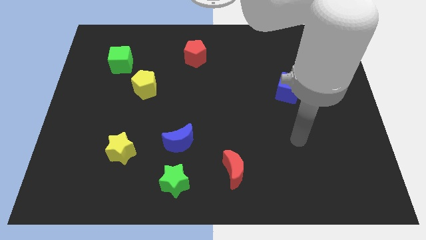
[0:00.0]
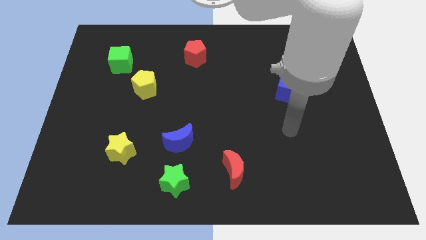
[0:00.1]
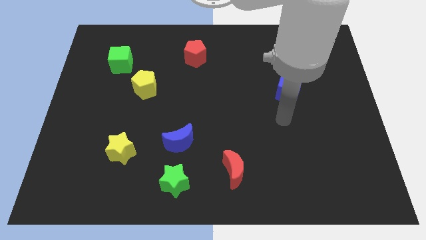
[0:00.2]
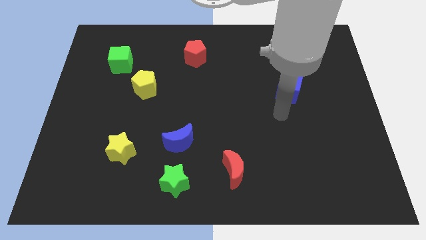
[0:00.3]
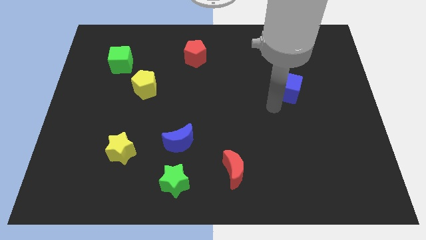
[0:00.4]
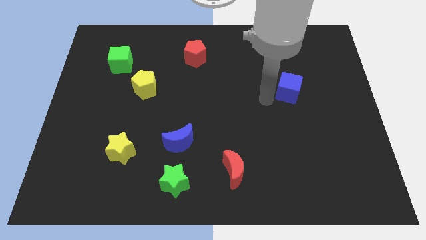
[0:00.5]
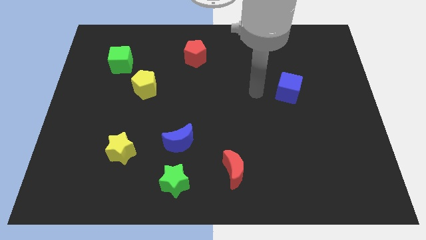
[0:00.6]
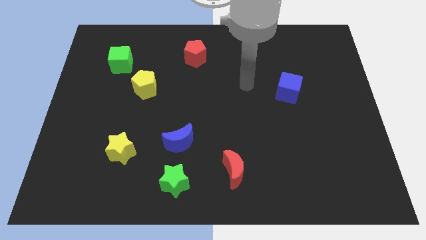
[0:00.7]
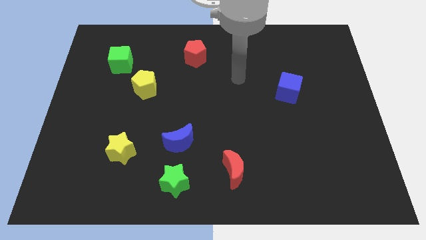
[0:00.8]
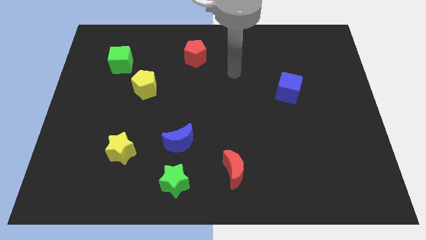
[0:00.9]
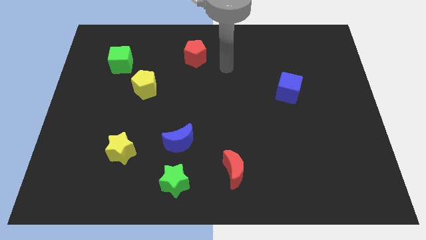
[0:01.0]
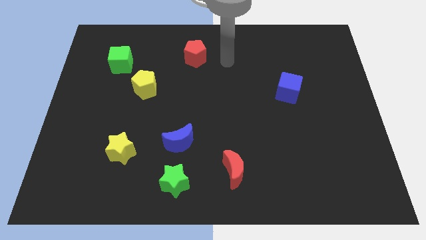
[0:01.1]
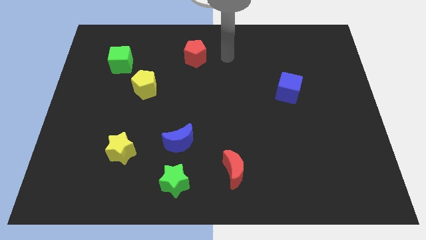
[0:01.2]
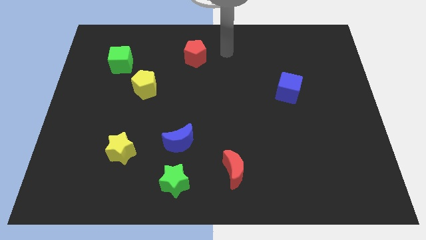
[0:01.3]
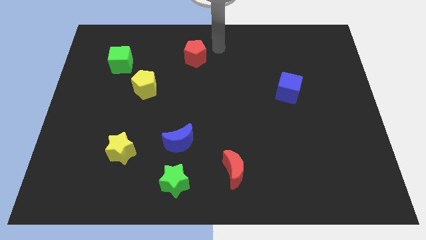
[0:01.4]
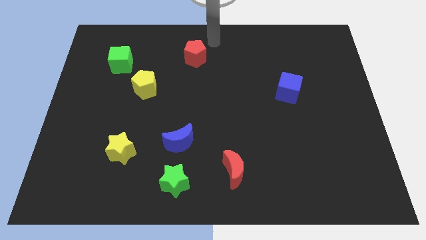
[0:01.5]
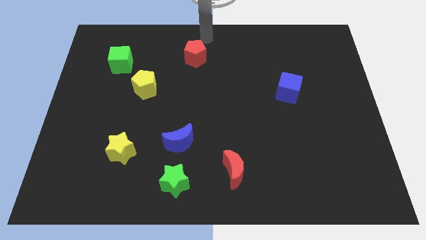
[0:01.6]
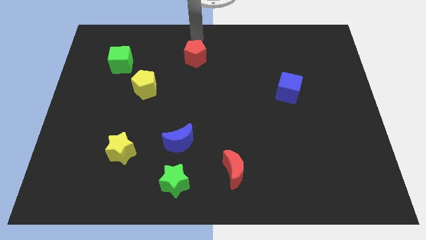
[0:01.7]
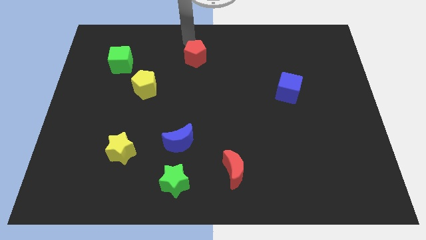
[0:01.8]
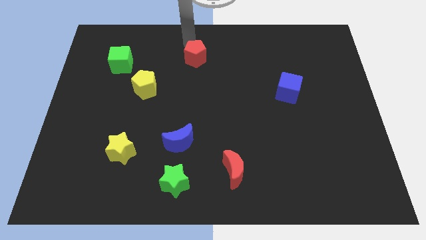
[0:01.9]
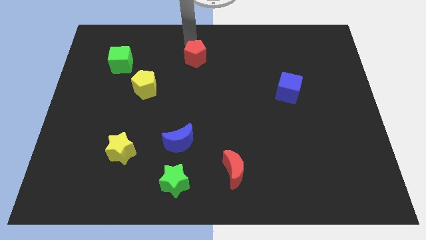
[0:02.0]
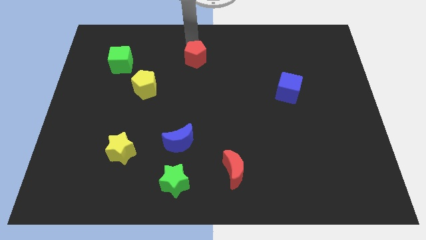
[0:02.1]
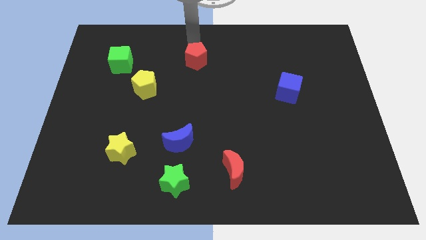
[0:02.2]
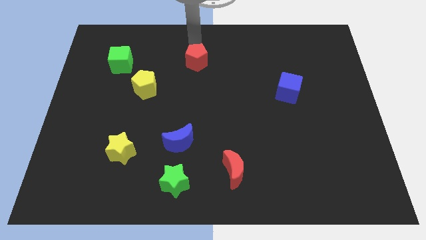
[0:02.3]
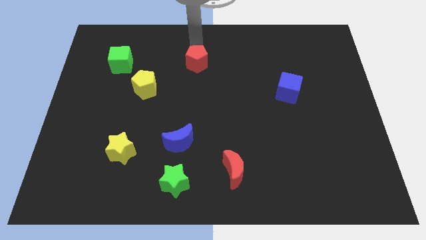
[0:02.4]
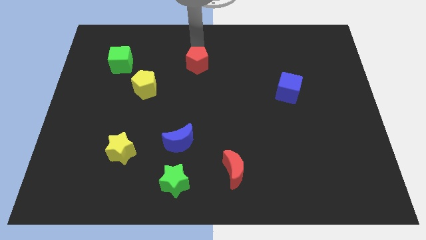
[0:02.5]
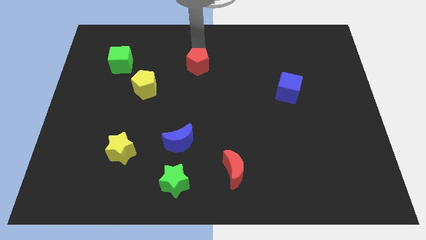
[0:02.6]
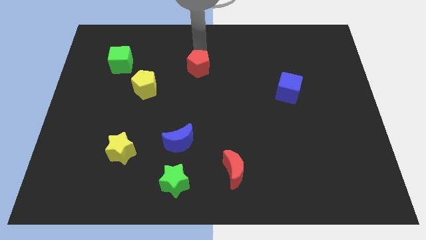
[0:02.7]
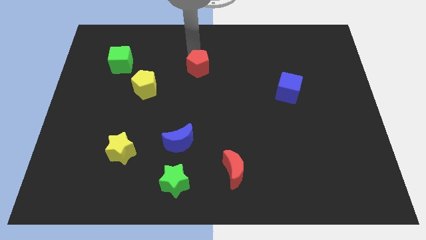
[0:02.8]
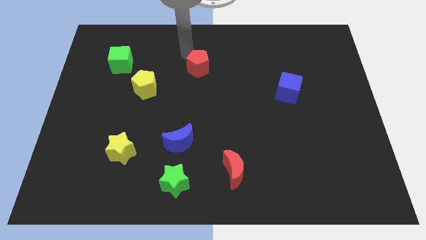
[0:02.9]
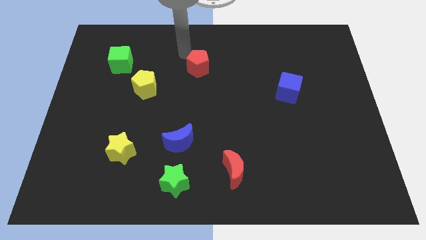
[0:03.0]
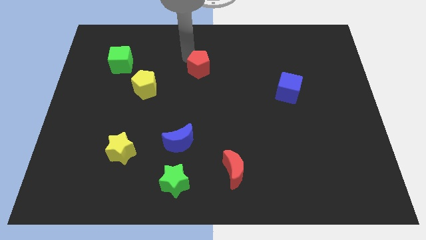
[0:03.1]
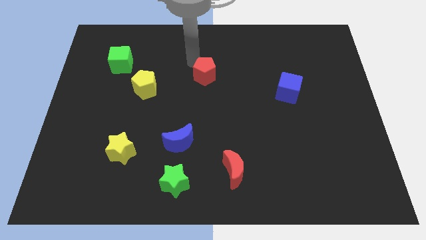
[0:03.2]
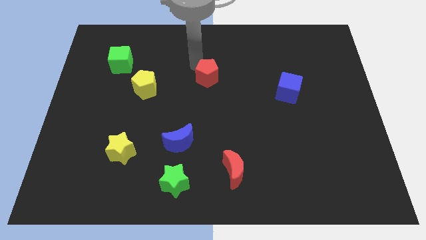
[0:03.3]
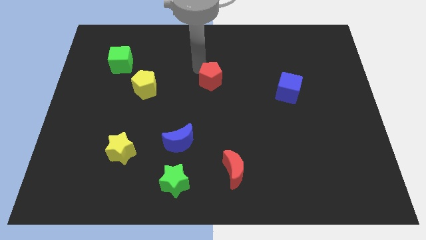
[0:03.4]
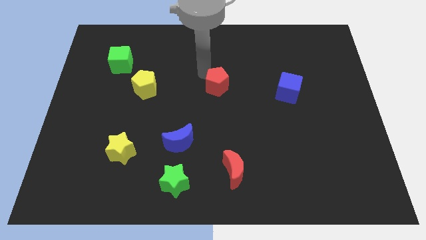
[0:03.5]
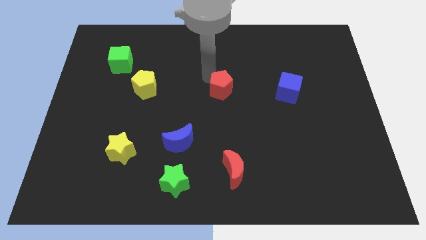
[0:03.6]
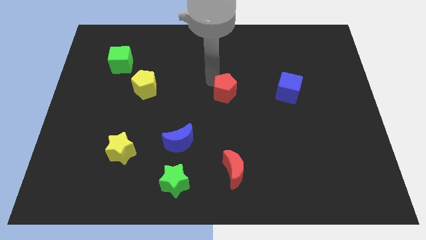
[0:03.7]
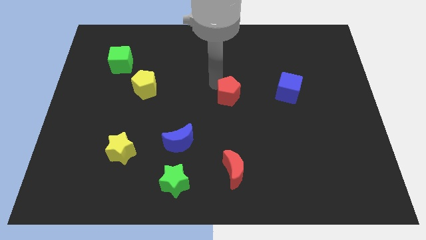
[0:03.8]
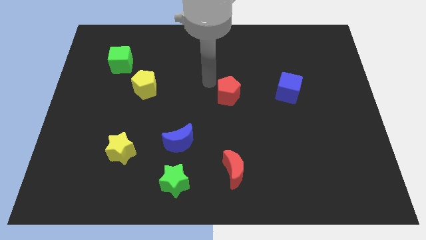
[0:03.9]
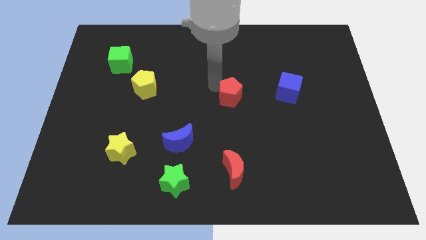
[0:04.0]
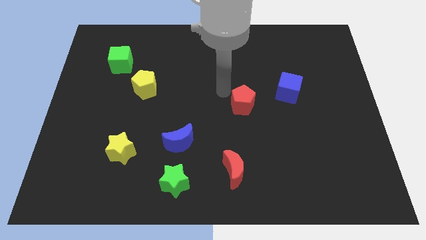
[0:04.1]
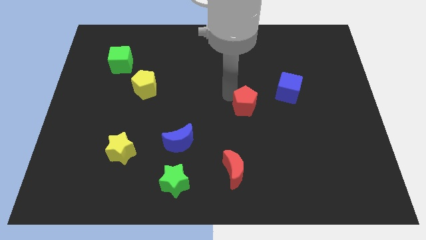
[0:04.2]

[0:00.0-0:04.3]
slide the red pentagon down and to the right

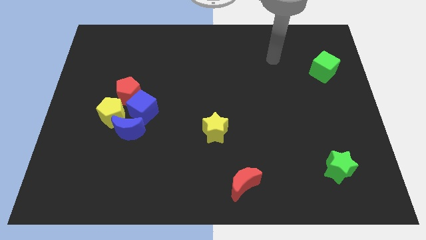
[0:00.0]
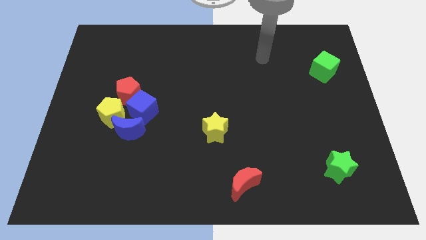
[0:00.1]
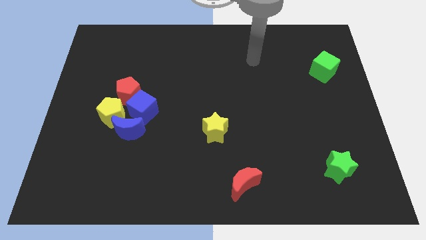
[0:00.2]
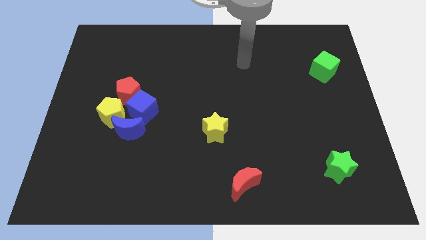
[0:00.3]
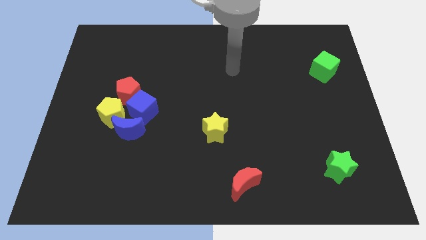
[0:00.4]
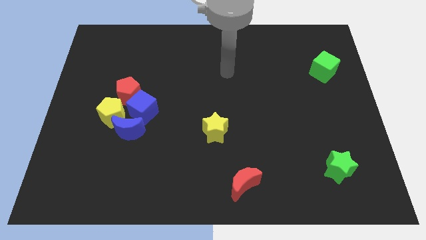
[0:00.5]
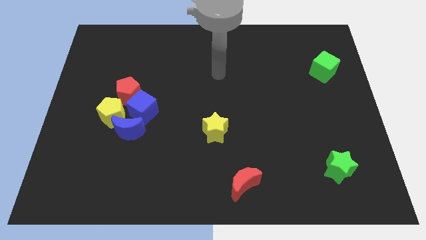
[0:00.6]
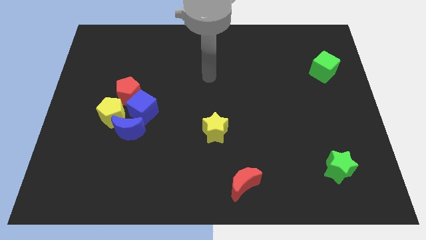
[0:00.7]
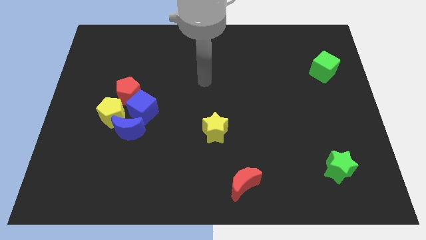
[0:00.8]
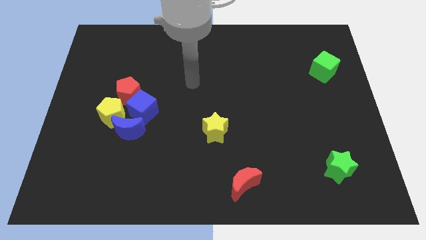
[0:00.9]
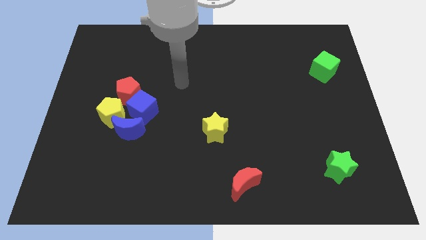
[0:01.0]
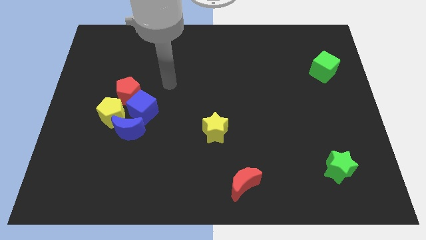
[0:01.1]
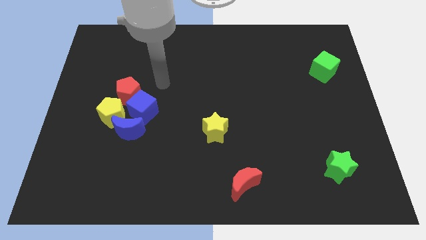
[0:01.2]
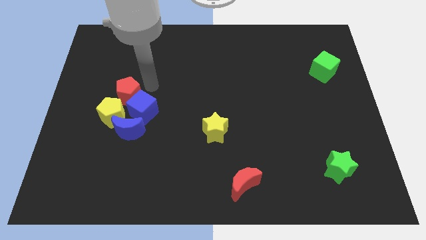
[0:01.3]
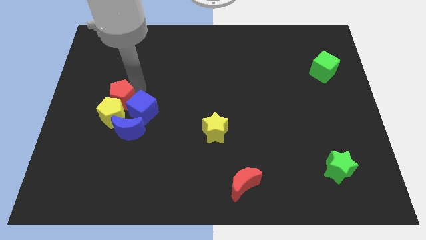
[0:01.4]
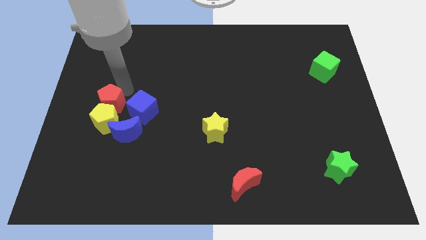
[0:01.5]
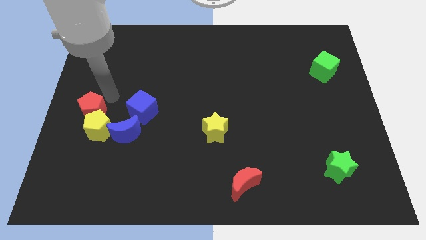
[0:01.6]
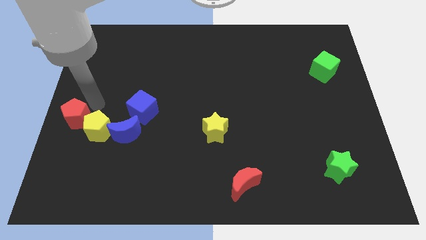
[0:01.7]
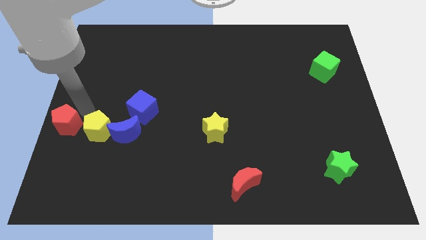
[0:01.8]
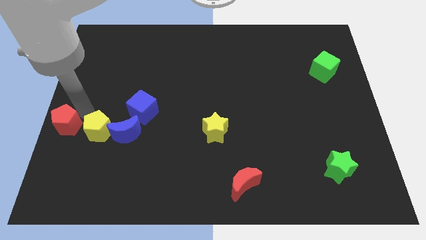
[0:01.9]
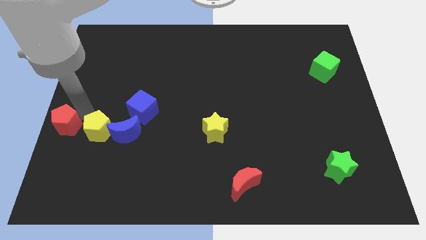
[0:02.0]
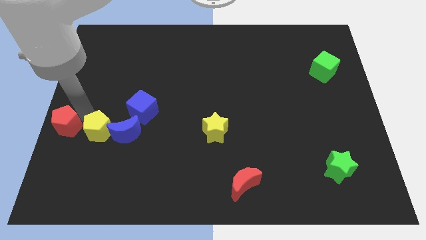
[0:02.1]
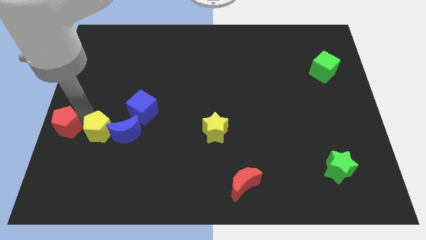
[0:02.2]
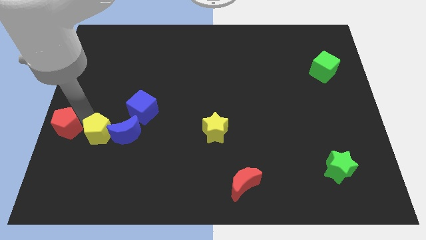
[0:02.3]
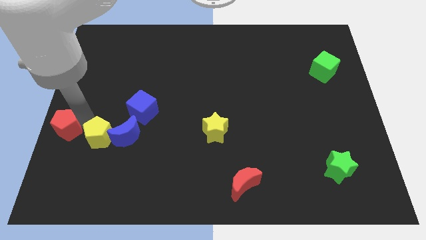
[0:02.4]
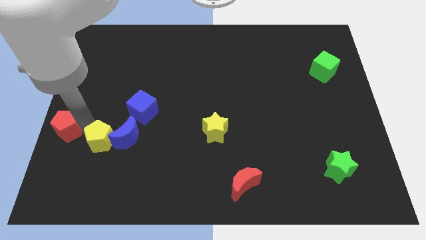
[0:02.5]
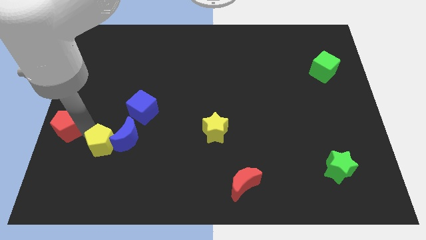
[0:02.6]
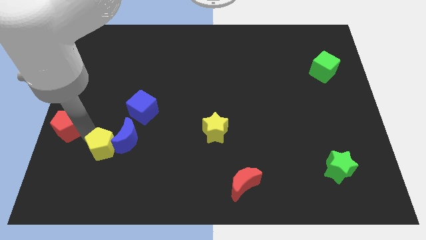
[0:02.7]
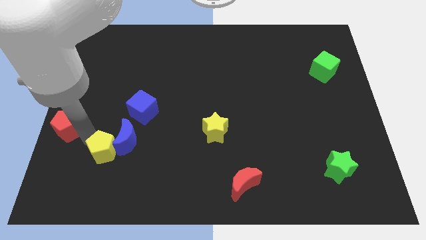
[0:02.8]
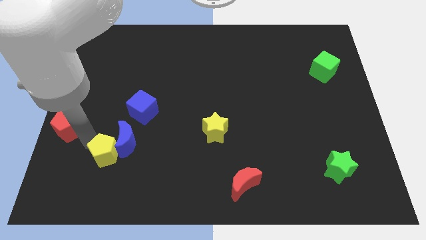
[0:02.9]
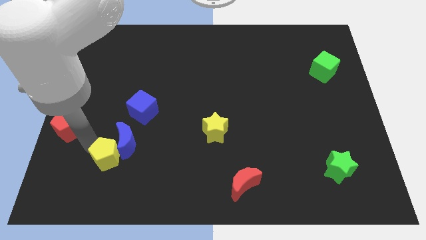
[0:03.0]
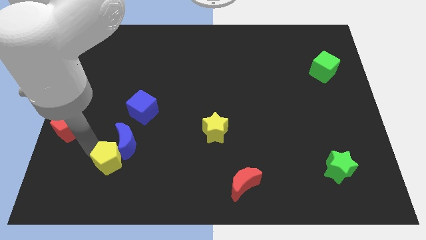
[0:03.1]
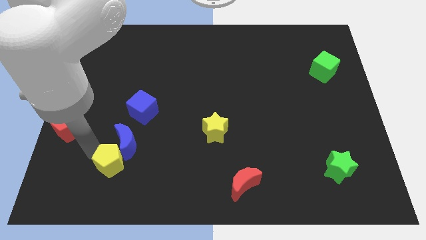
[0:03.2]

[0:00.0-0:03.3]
slightly move the yellow pentagon down and then to the right

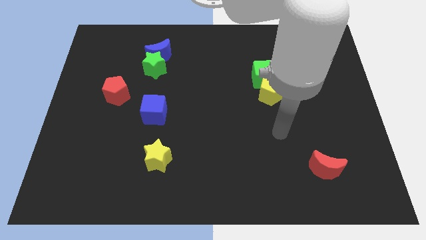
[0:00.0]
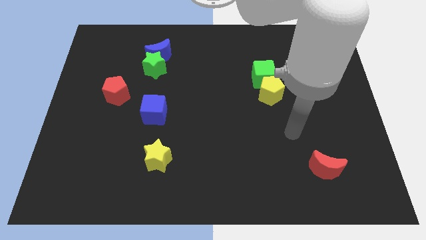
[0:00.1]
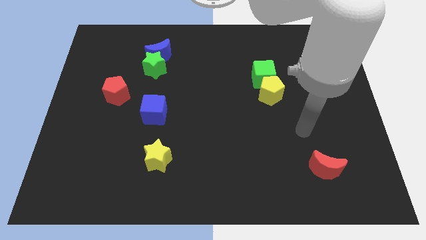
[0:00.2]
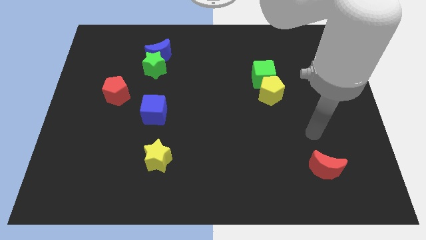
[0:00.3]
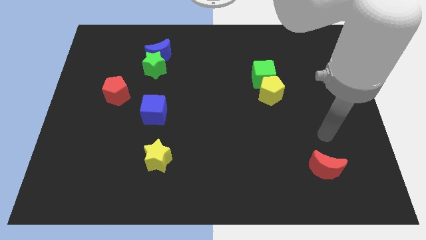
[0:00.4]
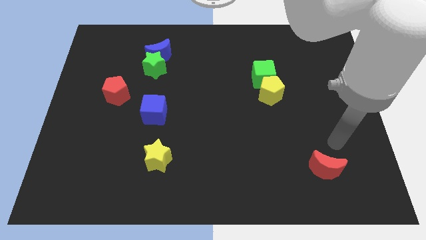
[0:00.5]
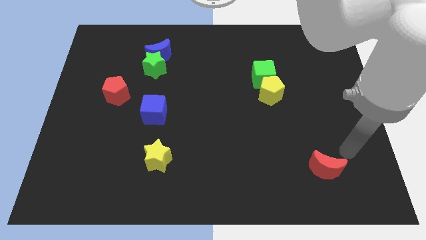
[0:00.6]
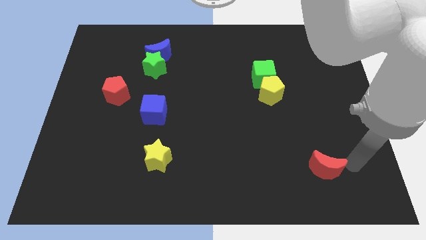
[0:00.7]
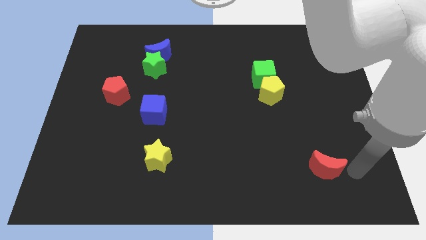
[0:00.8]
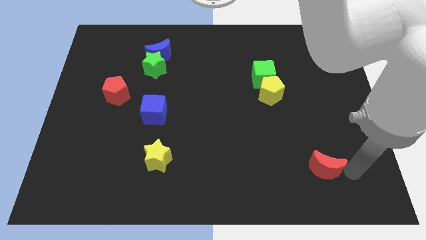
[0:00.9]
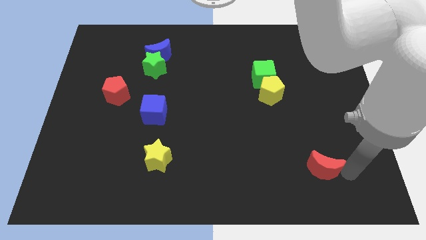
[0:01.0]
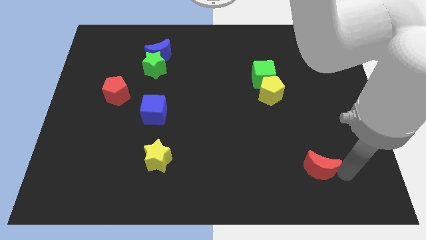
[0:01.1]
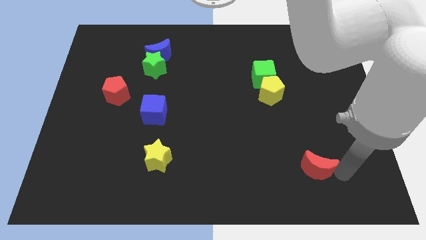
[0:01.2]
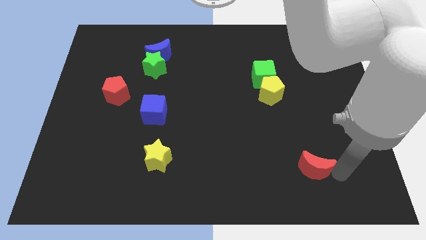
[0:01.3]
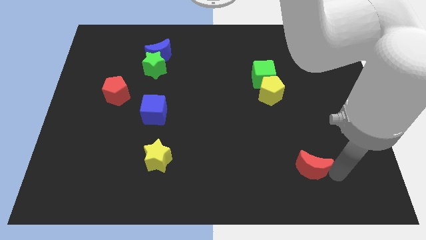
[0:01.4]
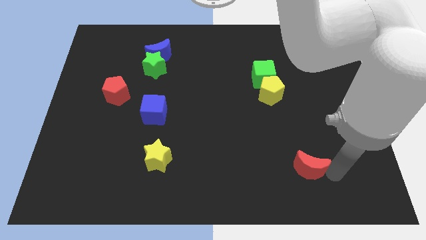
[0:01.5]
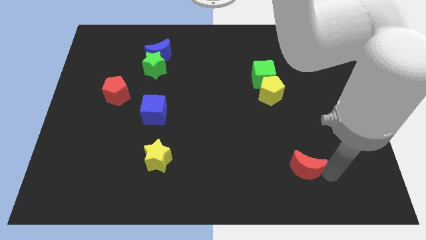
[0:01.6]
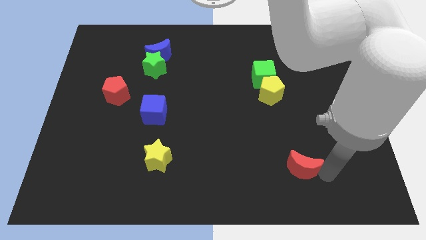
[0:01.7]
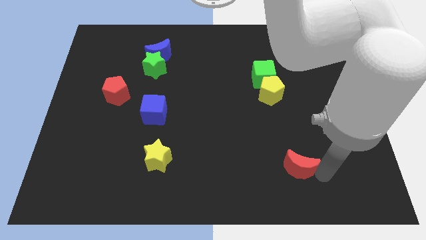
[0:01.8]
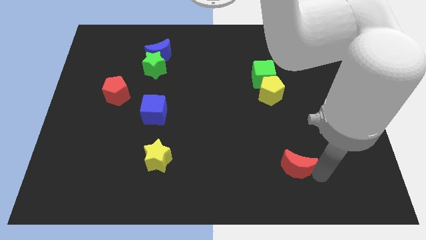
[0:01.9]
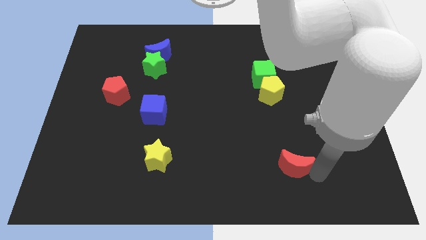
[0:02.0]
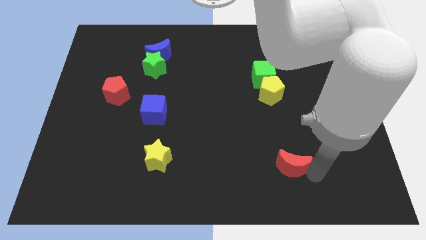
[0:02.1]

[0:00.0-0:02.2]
slide the red moon somewhat left
